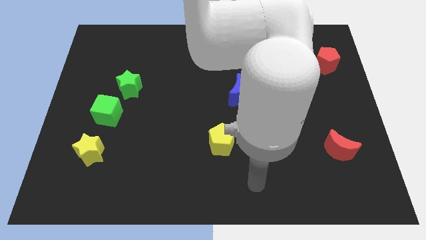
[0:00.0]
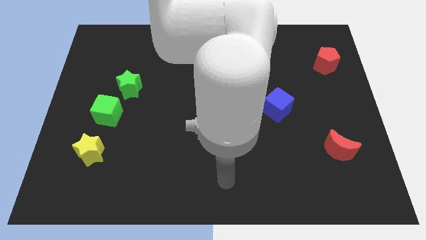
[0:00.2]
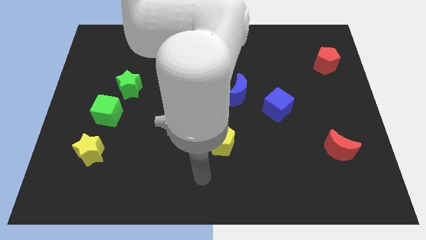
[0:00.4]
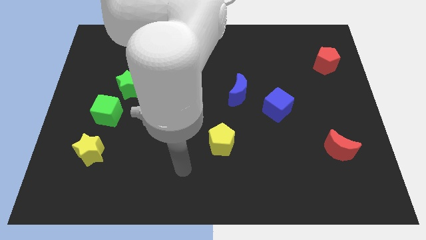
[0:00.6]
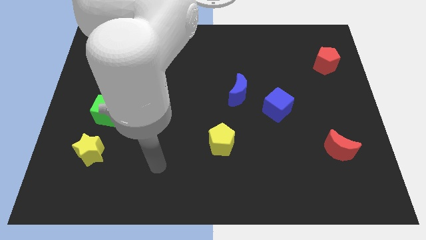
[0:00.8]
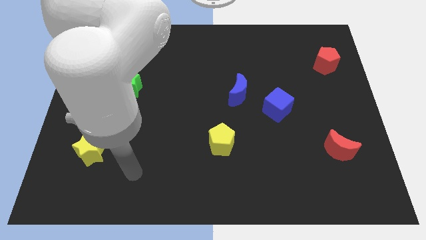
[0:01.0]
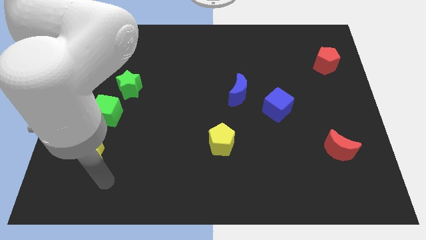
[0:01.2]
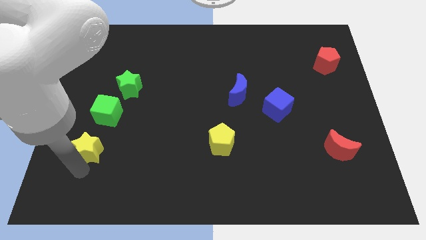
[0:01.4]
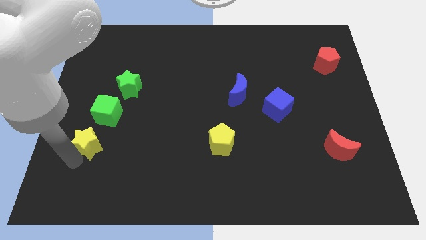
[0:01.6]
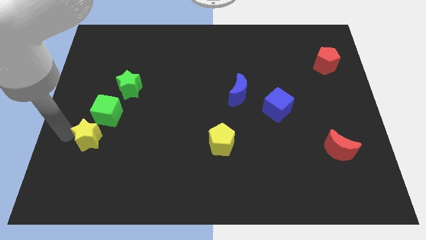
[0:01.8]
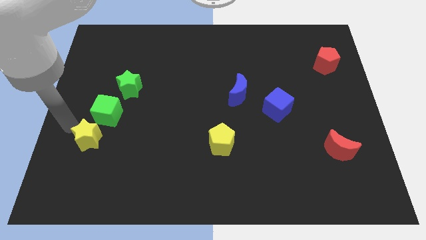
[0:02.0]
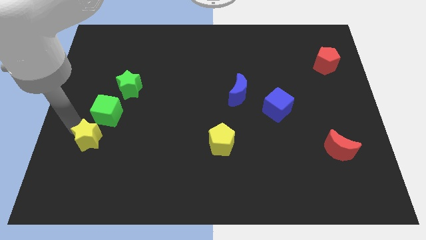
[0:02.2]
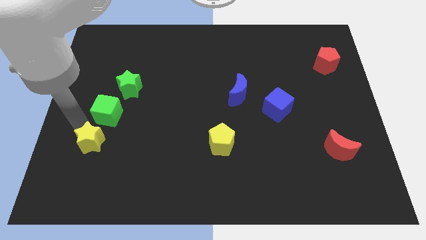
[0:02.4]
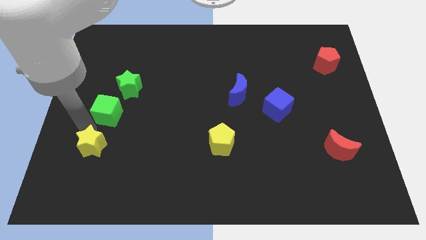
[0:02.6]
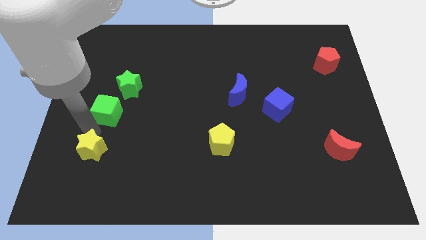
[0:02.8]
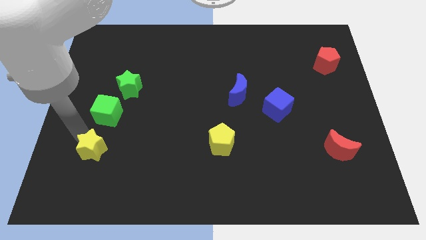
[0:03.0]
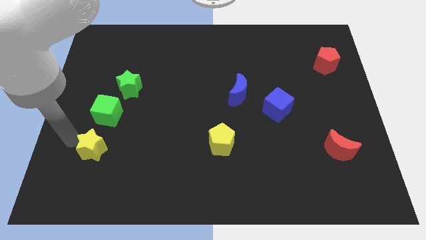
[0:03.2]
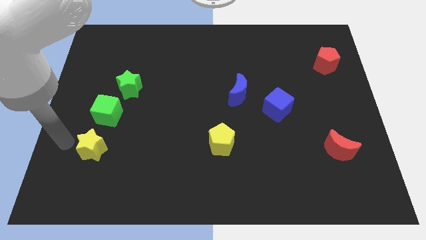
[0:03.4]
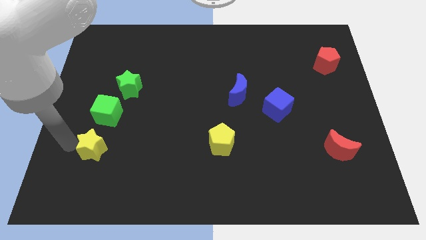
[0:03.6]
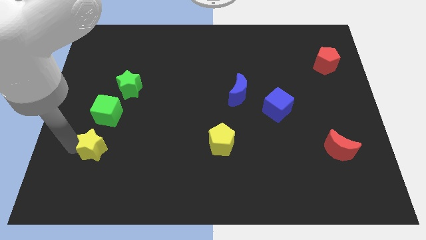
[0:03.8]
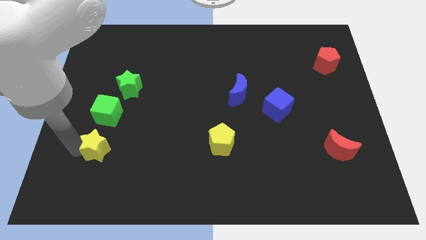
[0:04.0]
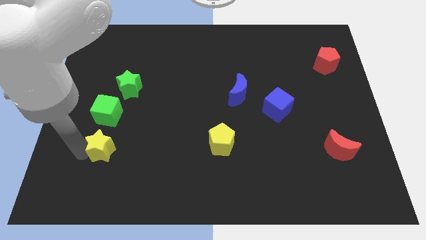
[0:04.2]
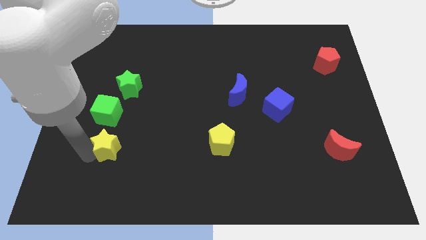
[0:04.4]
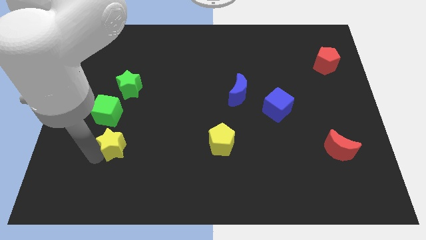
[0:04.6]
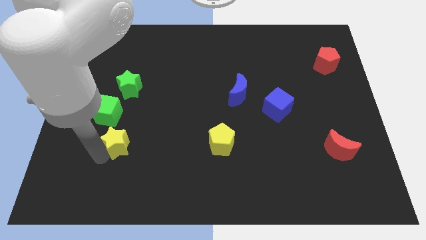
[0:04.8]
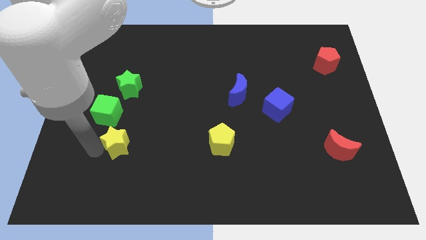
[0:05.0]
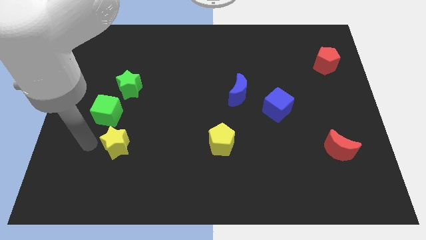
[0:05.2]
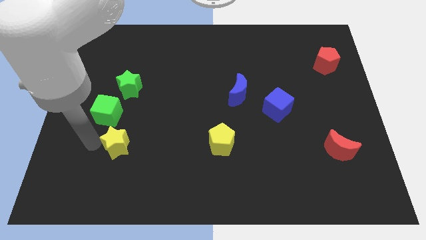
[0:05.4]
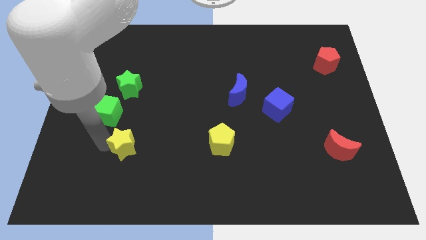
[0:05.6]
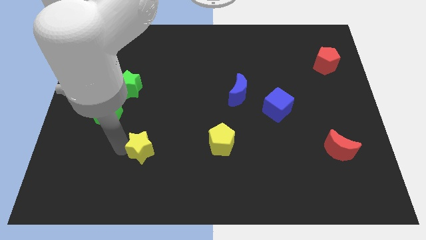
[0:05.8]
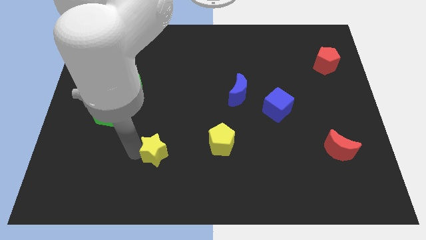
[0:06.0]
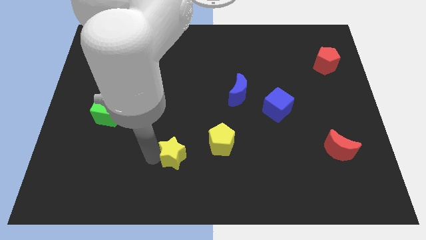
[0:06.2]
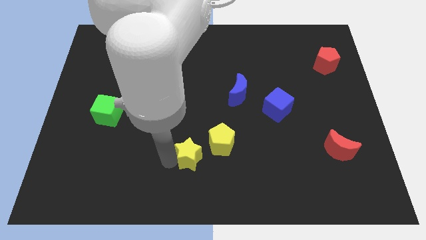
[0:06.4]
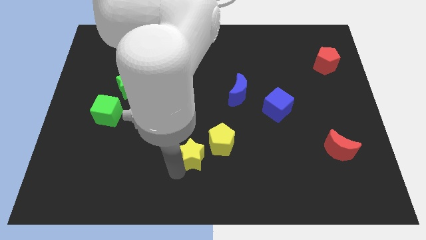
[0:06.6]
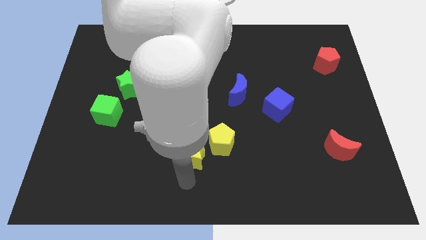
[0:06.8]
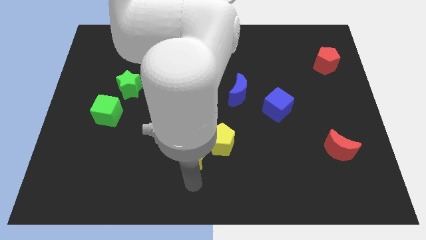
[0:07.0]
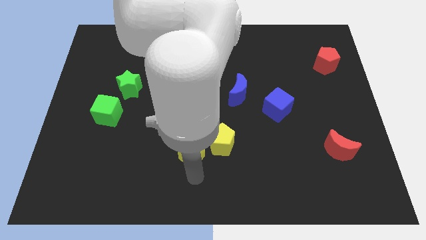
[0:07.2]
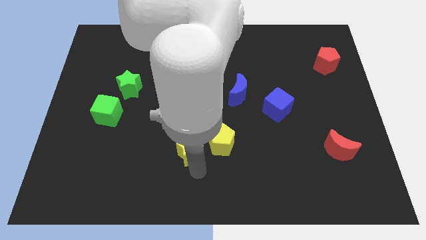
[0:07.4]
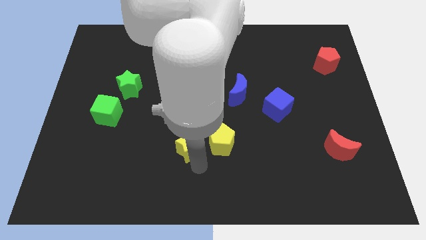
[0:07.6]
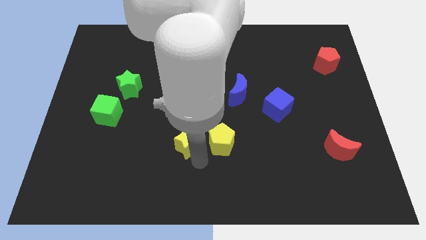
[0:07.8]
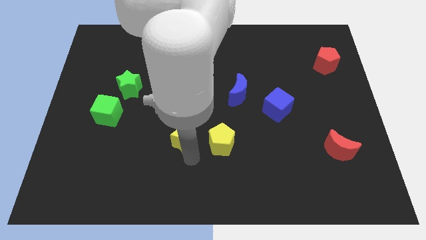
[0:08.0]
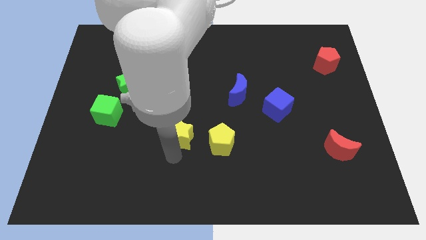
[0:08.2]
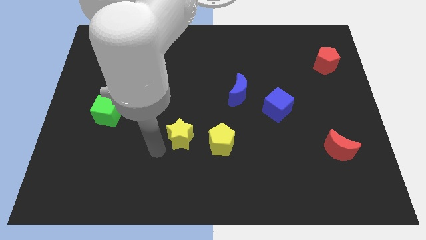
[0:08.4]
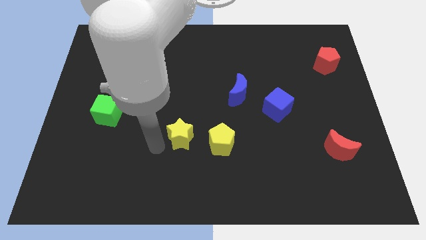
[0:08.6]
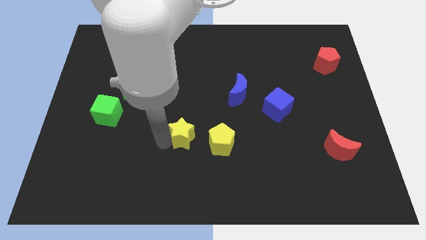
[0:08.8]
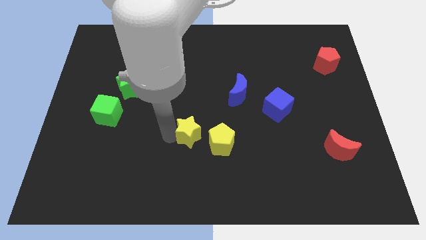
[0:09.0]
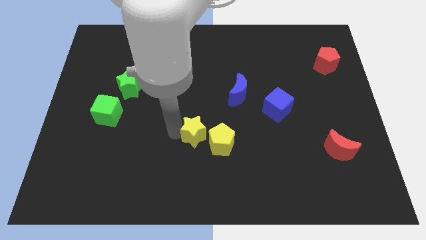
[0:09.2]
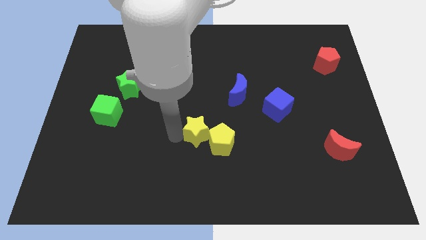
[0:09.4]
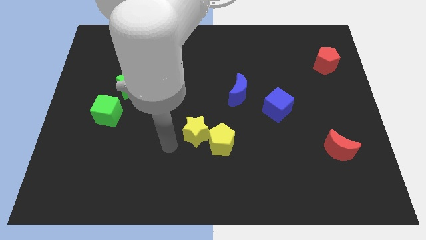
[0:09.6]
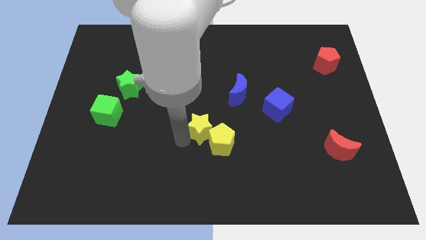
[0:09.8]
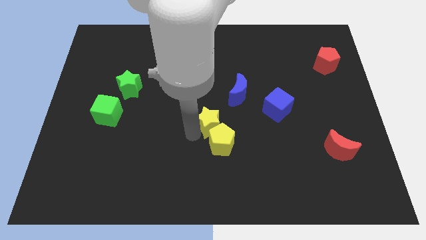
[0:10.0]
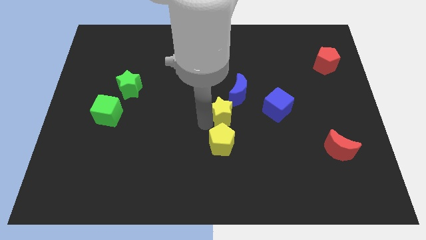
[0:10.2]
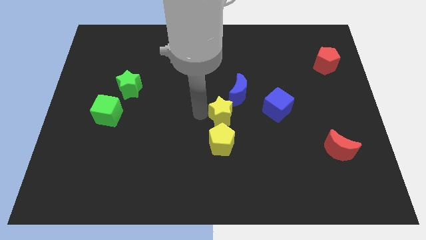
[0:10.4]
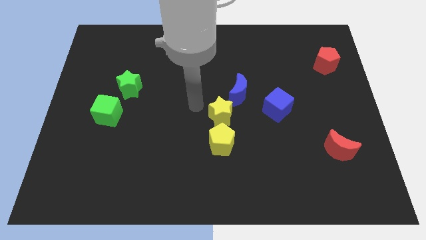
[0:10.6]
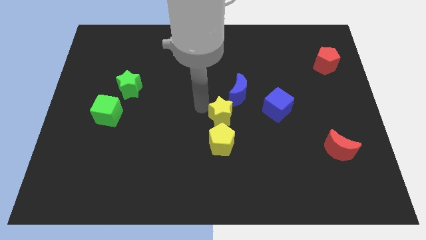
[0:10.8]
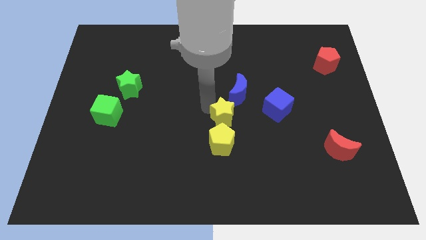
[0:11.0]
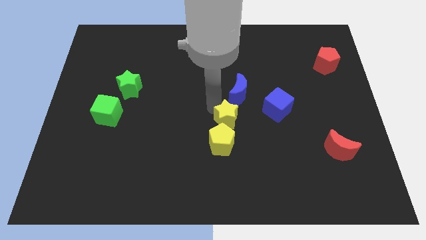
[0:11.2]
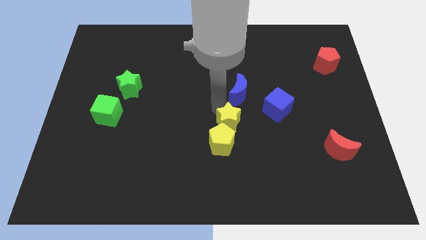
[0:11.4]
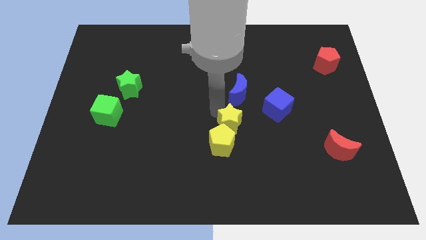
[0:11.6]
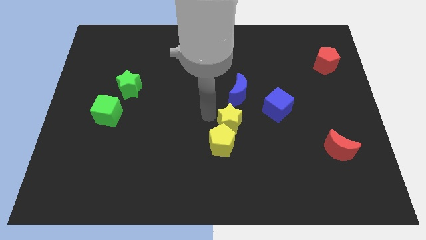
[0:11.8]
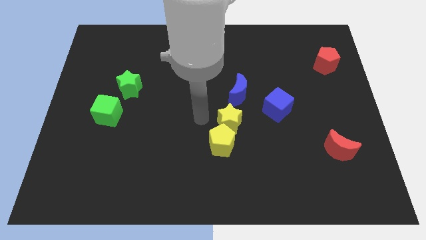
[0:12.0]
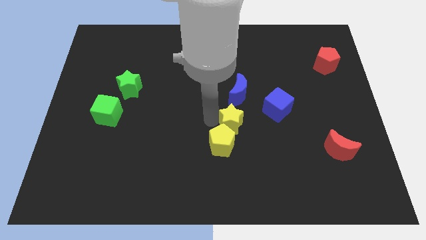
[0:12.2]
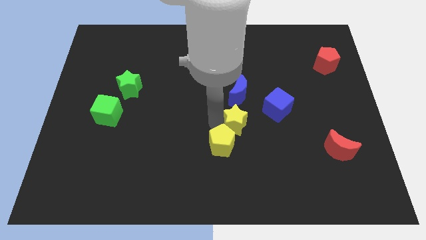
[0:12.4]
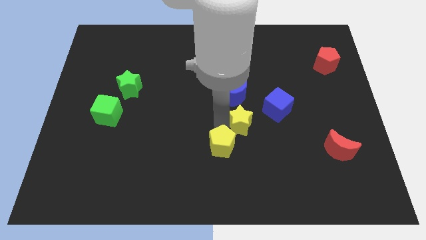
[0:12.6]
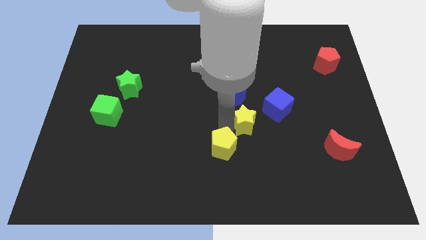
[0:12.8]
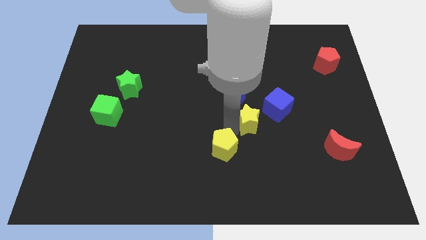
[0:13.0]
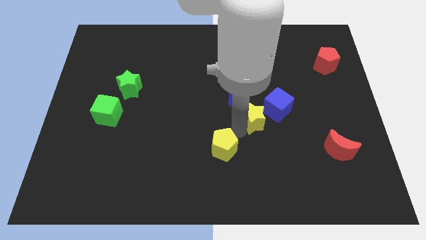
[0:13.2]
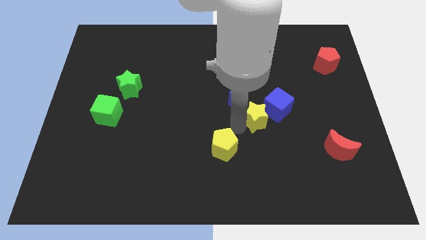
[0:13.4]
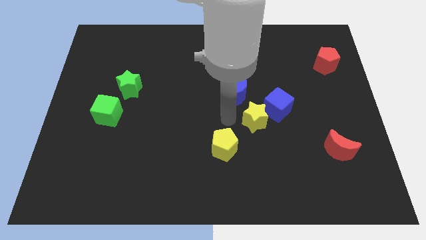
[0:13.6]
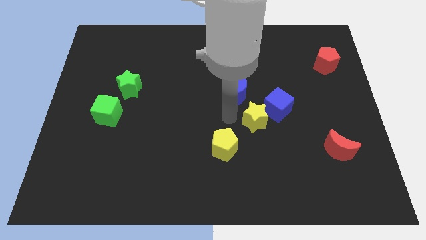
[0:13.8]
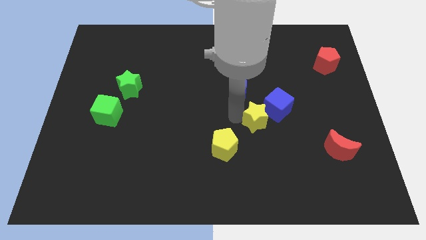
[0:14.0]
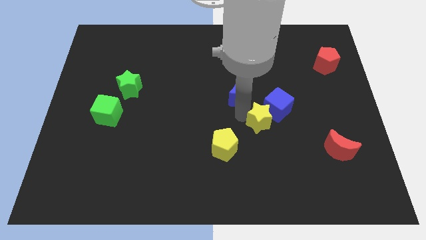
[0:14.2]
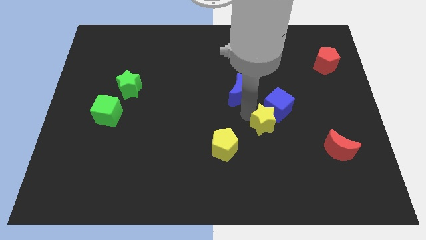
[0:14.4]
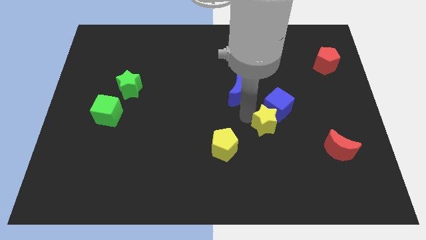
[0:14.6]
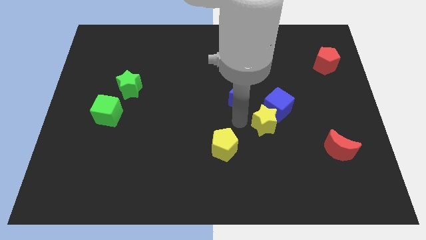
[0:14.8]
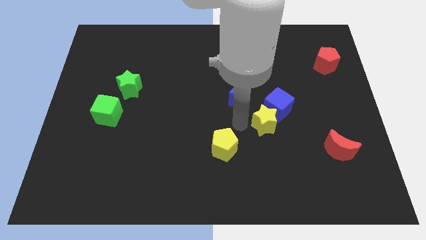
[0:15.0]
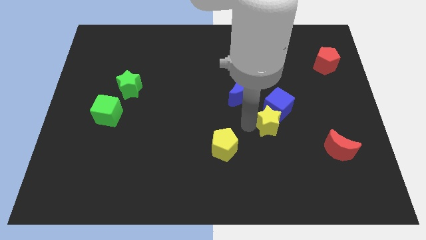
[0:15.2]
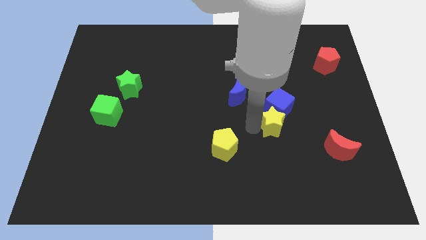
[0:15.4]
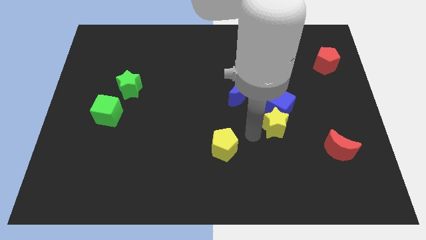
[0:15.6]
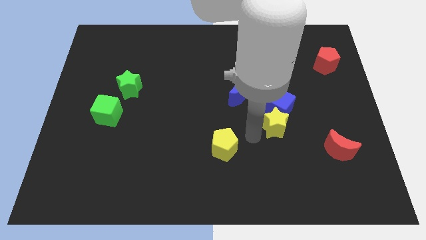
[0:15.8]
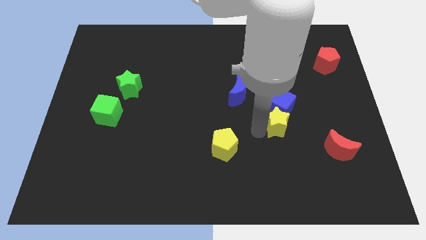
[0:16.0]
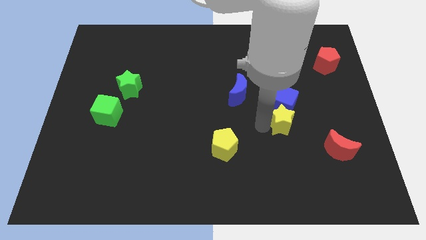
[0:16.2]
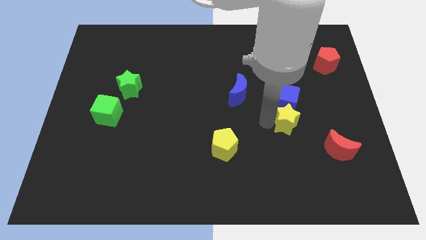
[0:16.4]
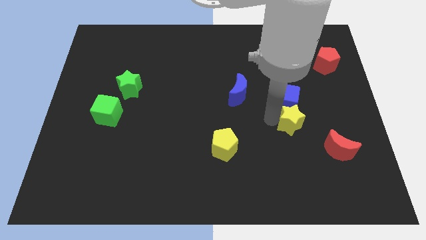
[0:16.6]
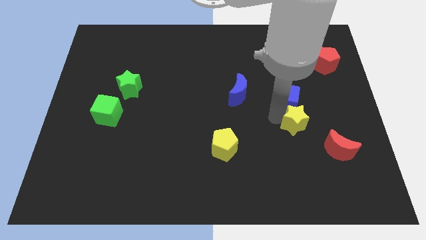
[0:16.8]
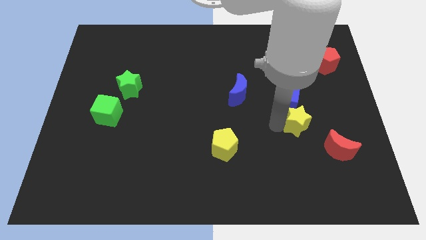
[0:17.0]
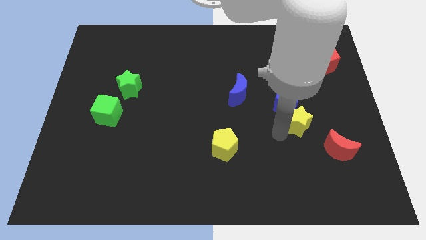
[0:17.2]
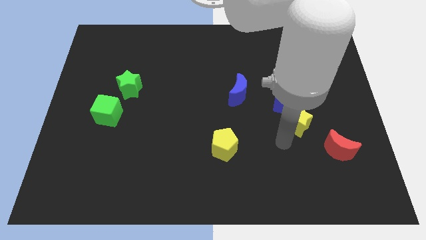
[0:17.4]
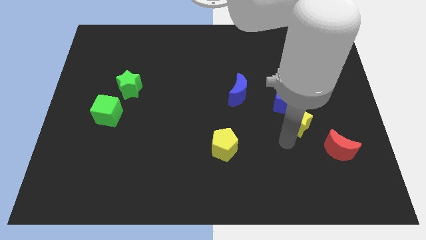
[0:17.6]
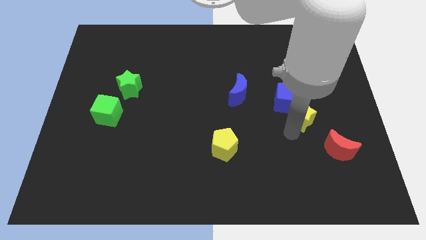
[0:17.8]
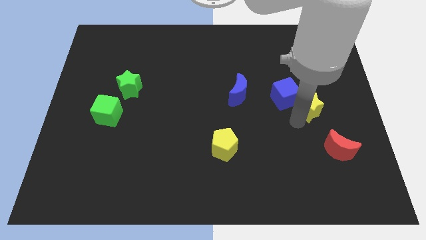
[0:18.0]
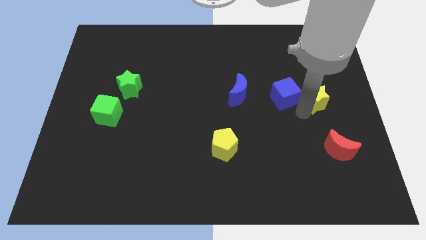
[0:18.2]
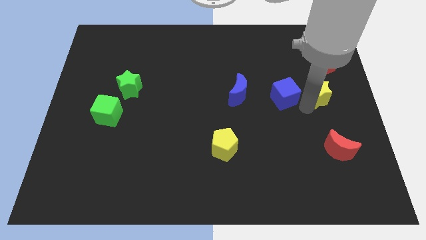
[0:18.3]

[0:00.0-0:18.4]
slide the yellow star below the red pentagon
